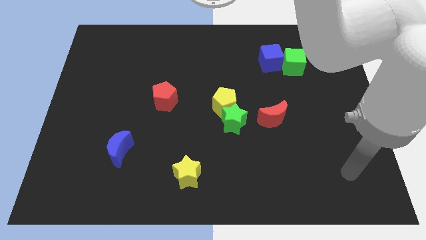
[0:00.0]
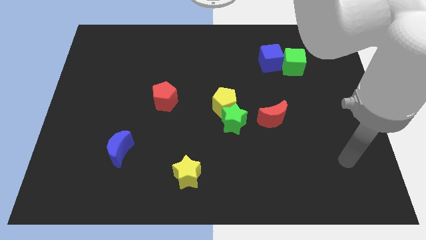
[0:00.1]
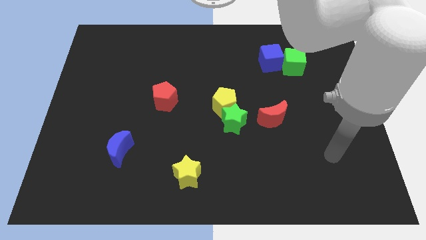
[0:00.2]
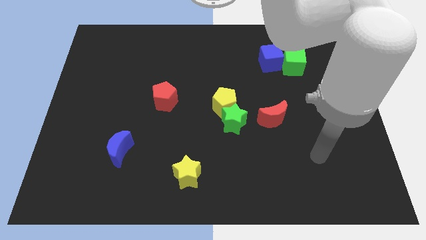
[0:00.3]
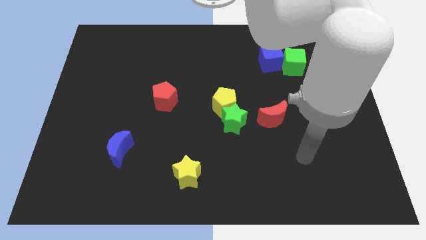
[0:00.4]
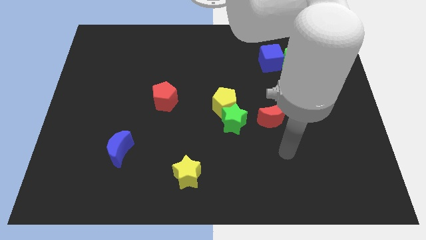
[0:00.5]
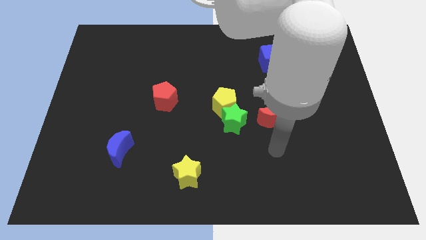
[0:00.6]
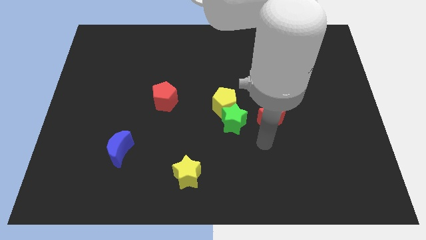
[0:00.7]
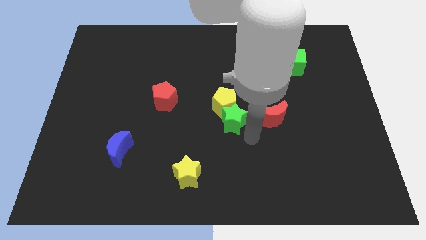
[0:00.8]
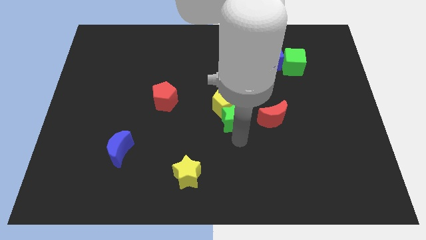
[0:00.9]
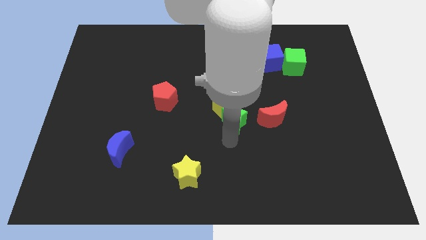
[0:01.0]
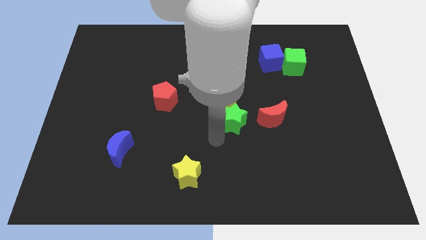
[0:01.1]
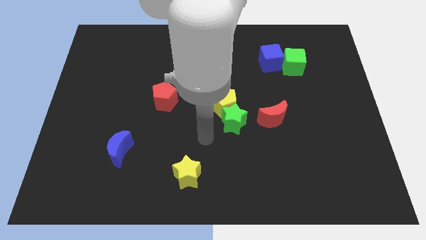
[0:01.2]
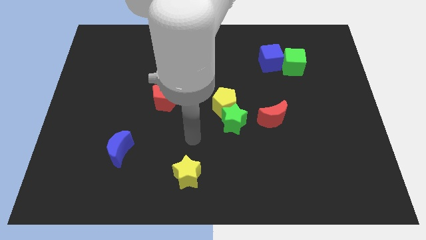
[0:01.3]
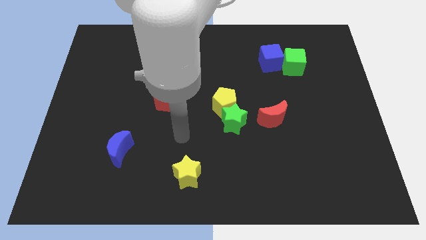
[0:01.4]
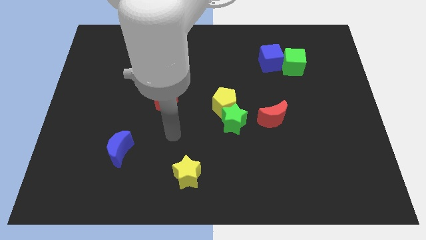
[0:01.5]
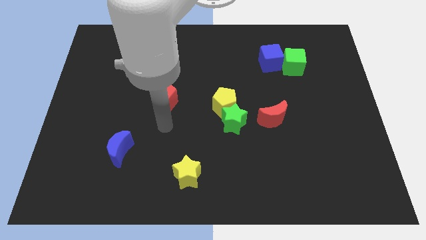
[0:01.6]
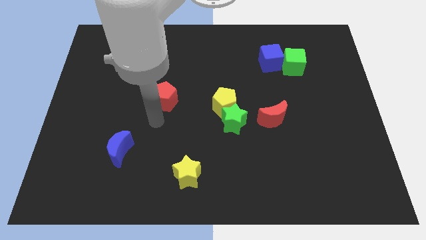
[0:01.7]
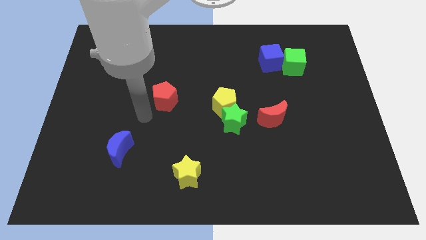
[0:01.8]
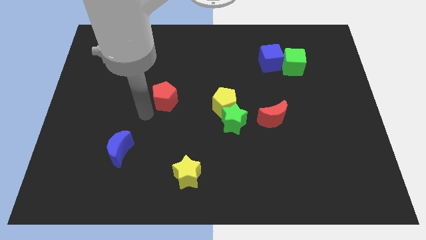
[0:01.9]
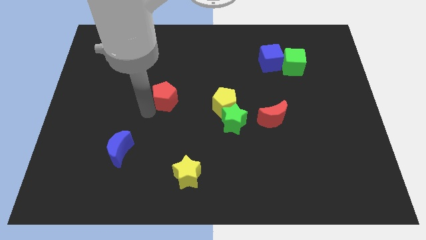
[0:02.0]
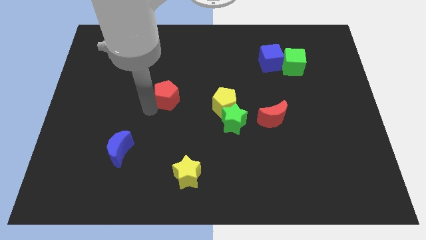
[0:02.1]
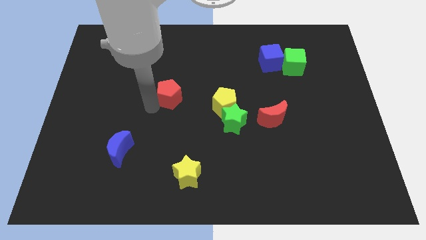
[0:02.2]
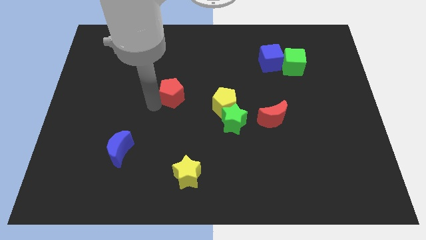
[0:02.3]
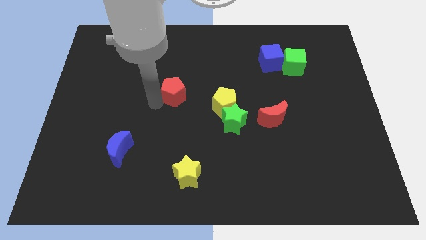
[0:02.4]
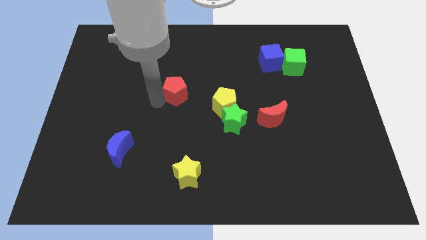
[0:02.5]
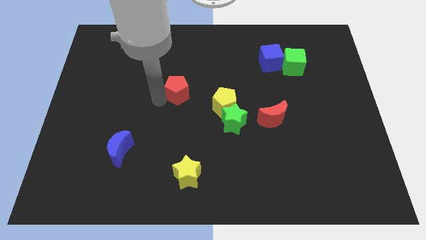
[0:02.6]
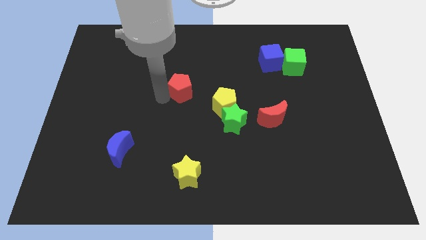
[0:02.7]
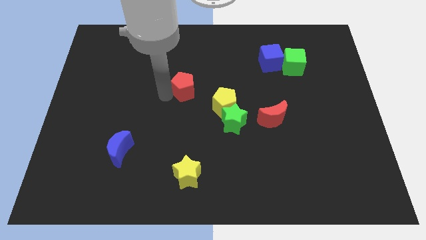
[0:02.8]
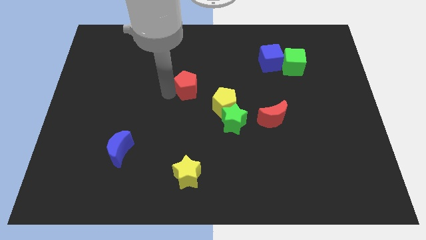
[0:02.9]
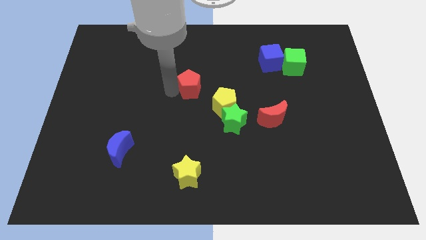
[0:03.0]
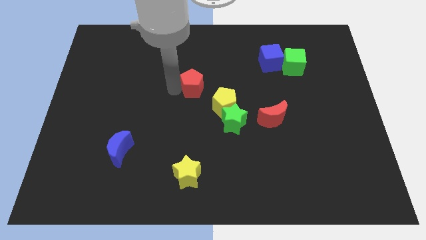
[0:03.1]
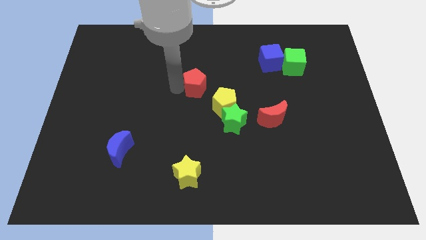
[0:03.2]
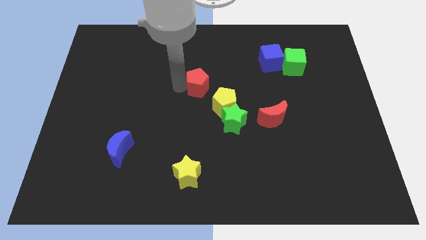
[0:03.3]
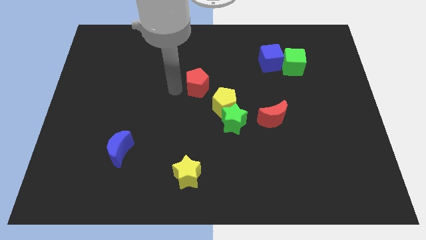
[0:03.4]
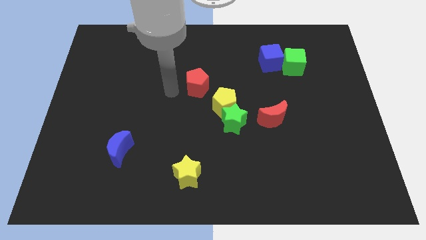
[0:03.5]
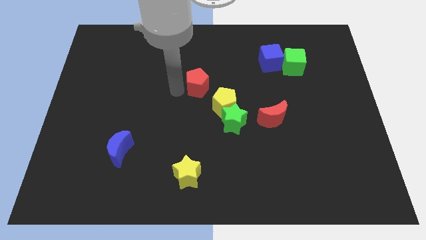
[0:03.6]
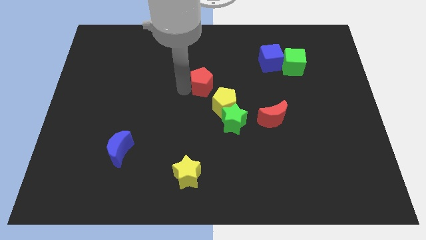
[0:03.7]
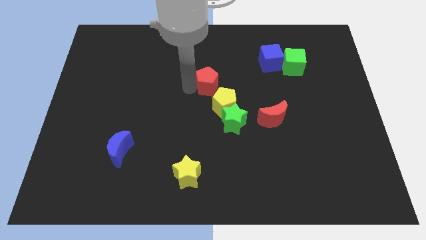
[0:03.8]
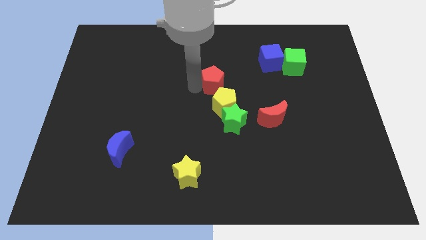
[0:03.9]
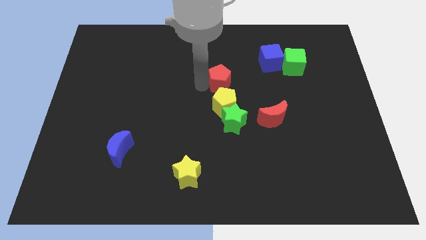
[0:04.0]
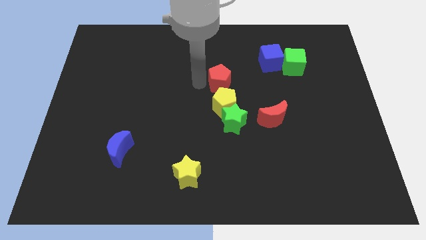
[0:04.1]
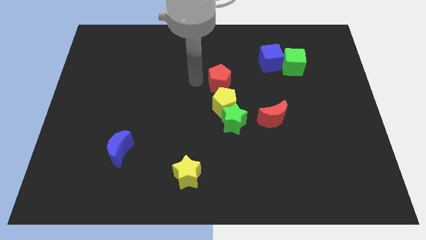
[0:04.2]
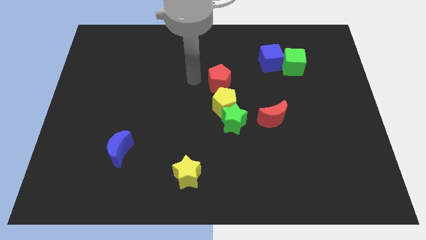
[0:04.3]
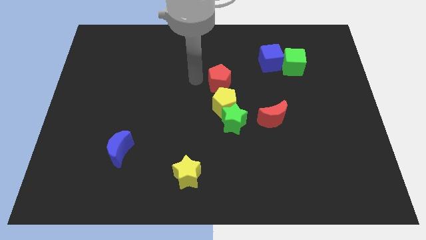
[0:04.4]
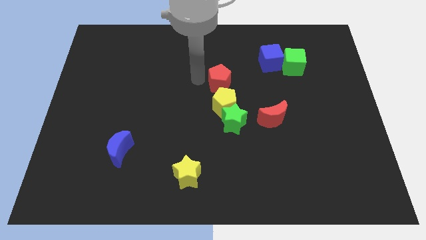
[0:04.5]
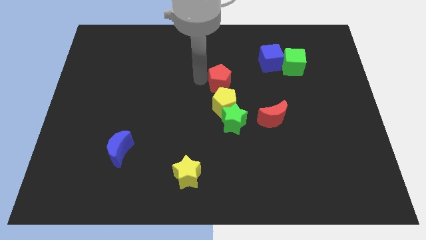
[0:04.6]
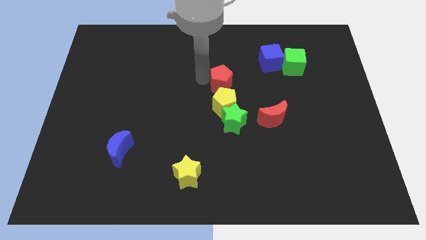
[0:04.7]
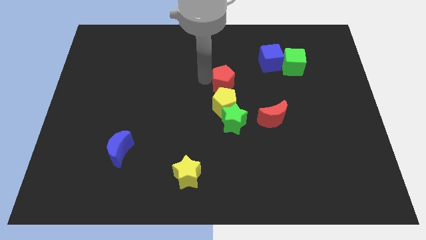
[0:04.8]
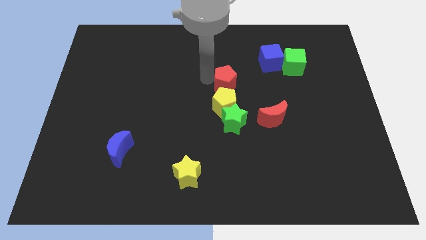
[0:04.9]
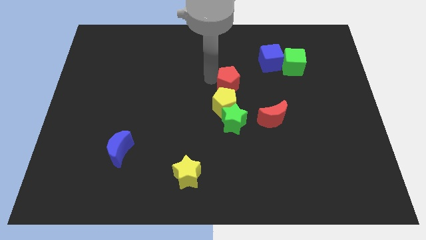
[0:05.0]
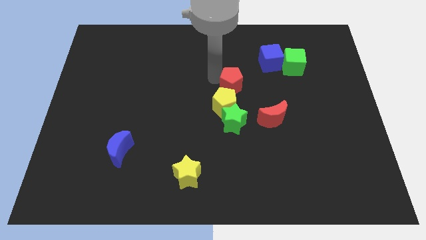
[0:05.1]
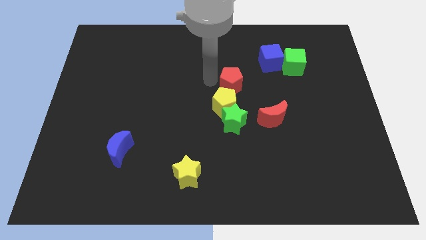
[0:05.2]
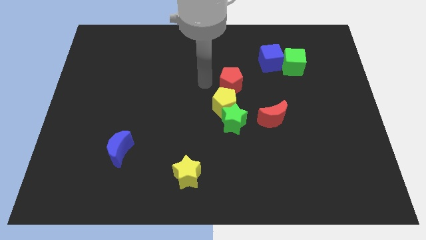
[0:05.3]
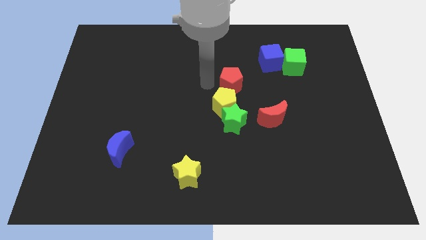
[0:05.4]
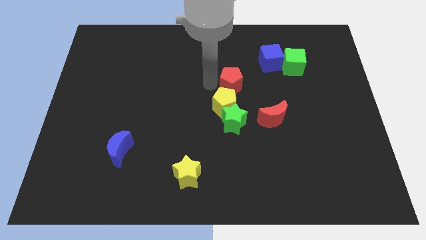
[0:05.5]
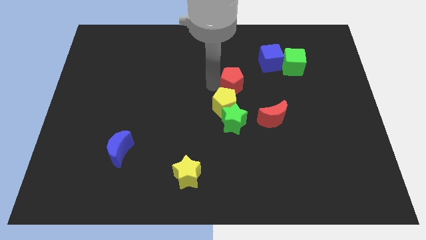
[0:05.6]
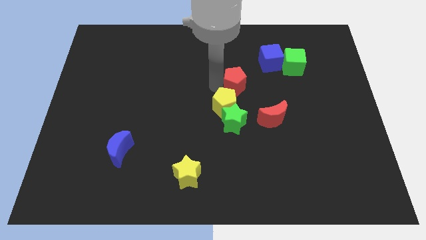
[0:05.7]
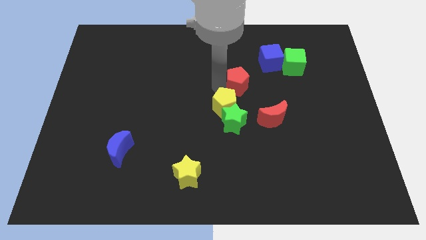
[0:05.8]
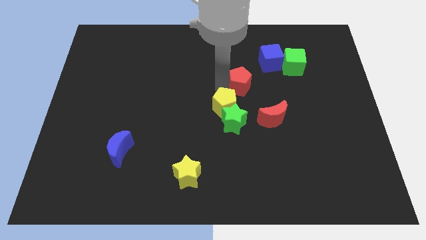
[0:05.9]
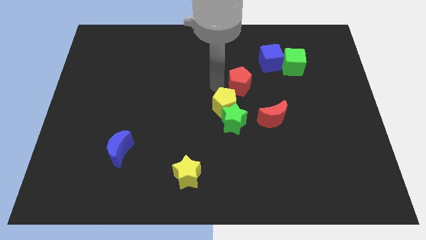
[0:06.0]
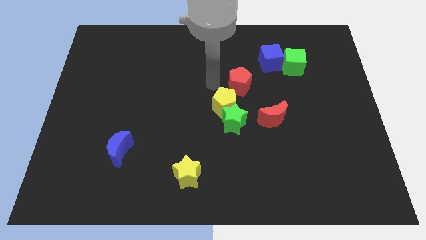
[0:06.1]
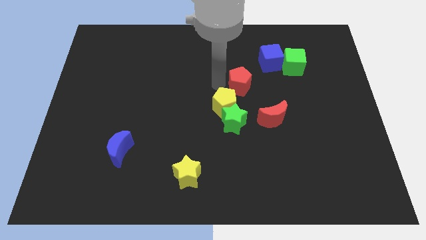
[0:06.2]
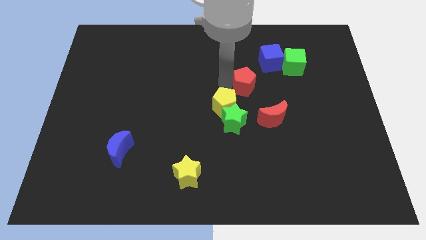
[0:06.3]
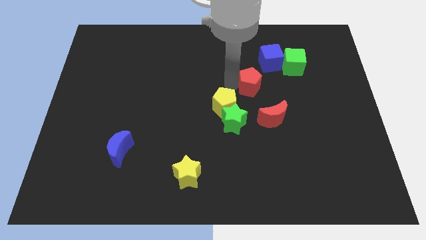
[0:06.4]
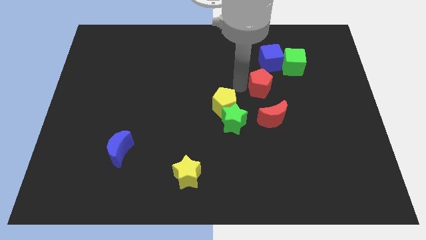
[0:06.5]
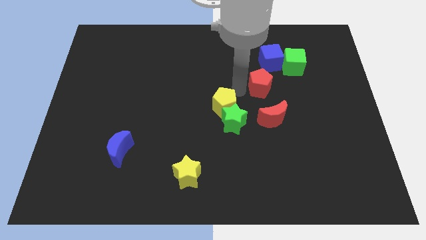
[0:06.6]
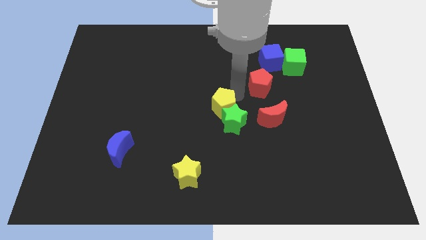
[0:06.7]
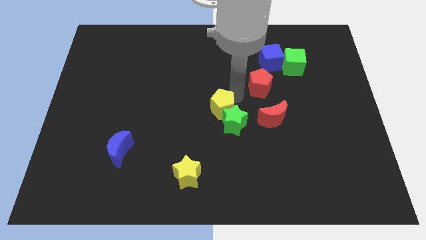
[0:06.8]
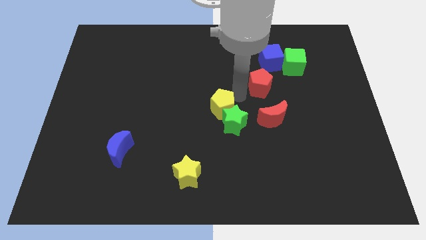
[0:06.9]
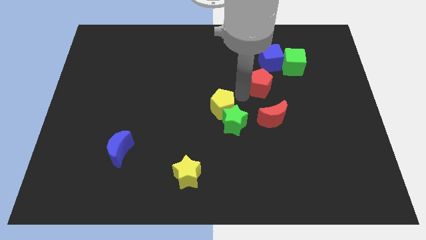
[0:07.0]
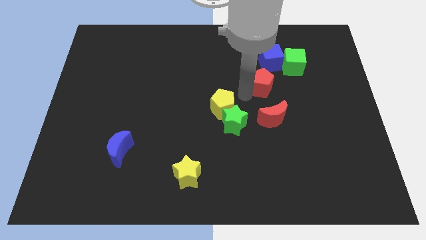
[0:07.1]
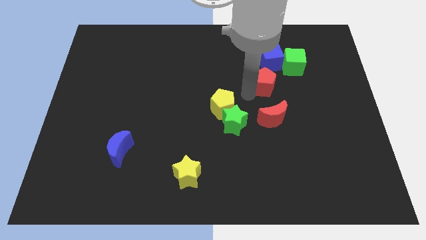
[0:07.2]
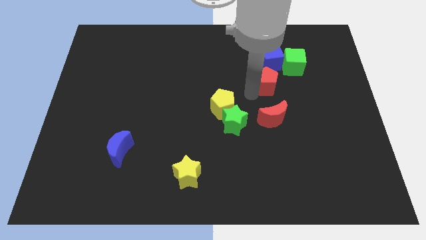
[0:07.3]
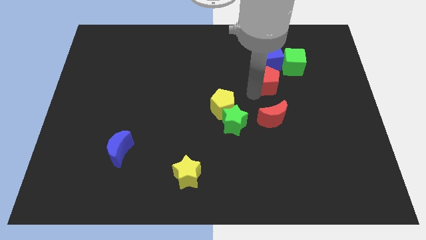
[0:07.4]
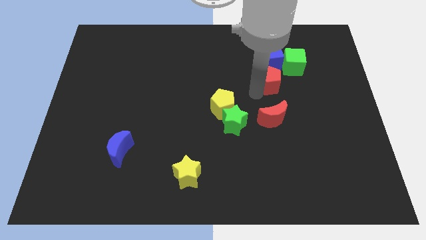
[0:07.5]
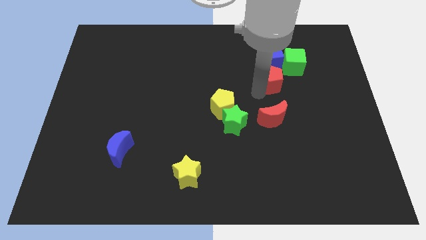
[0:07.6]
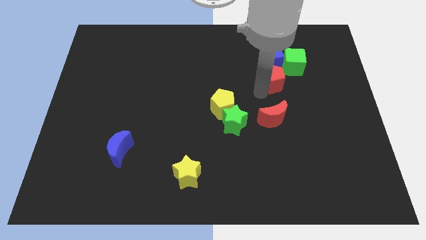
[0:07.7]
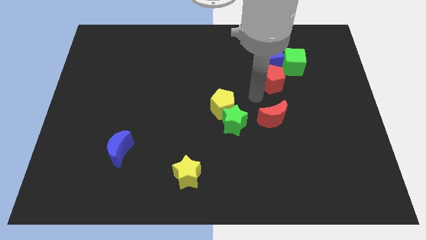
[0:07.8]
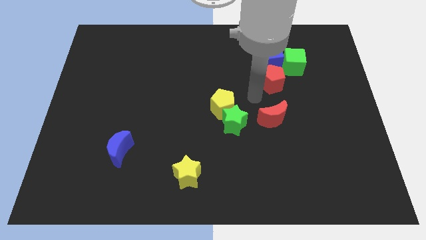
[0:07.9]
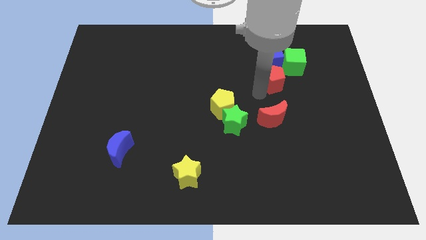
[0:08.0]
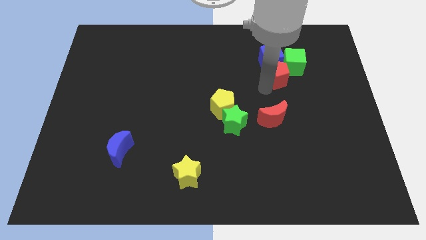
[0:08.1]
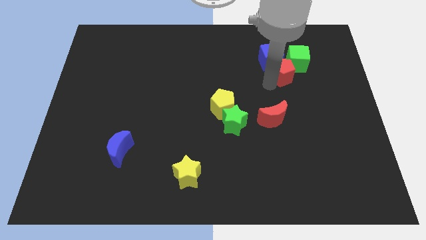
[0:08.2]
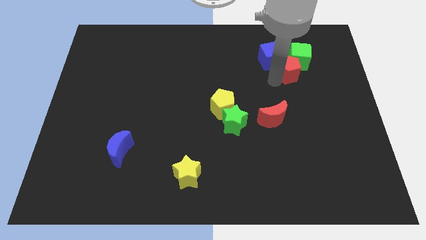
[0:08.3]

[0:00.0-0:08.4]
put the red pentagon close to the green cube
